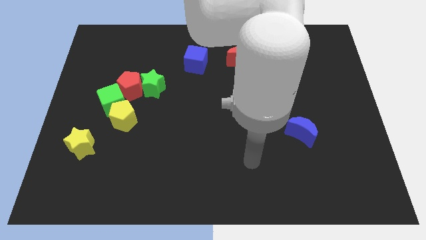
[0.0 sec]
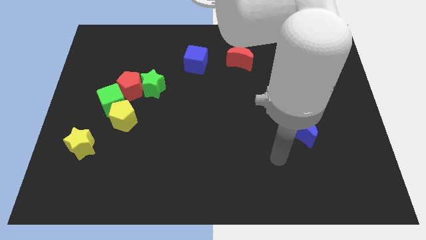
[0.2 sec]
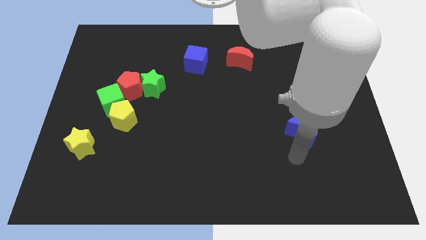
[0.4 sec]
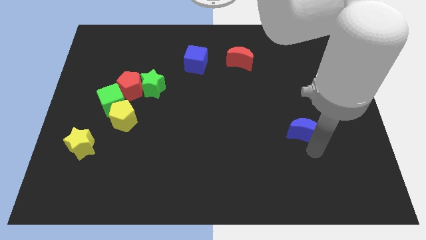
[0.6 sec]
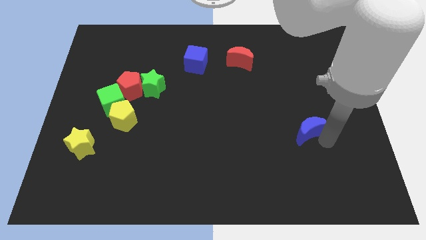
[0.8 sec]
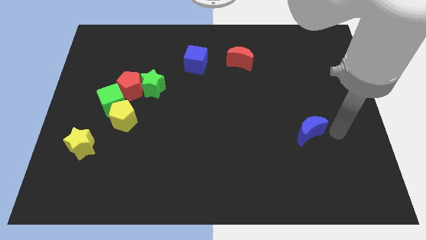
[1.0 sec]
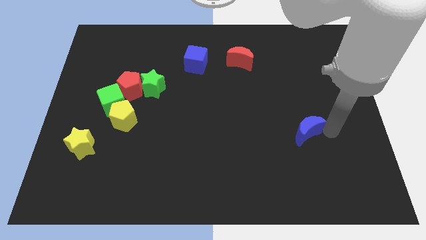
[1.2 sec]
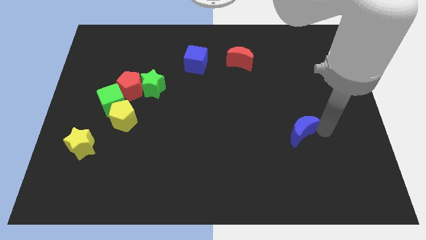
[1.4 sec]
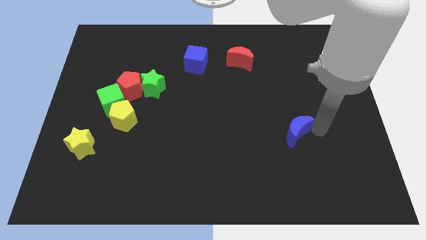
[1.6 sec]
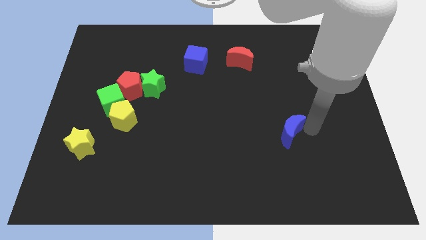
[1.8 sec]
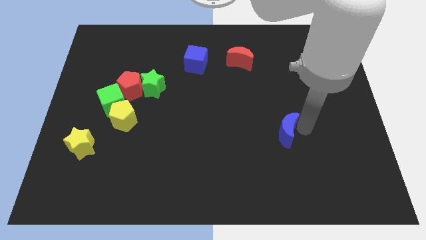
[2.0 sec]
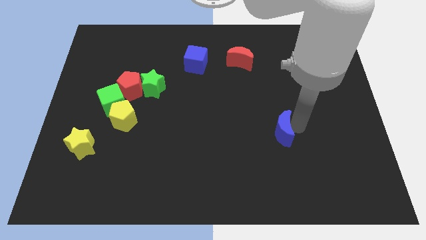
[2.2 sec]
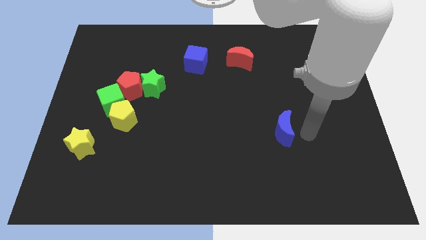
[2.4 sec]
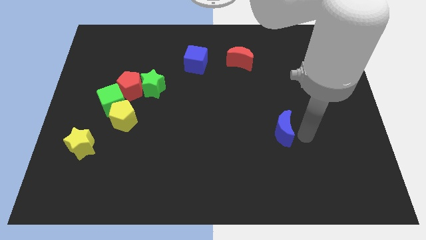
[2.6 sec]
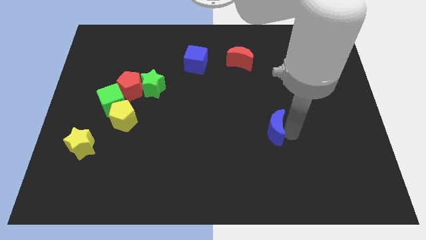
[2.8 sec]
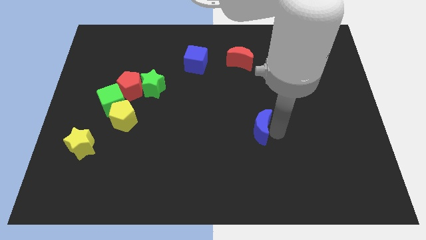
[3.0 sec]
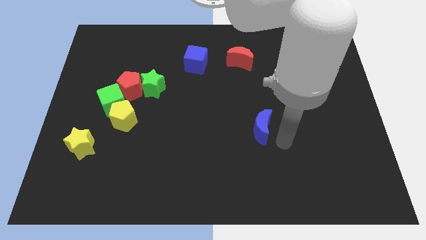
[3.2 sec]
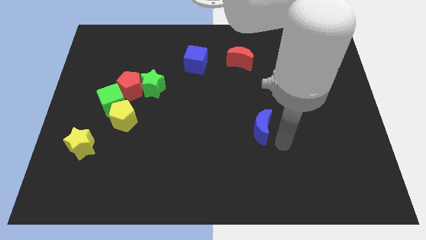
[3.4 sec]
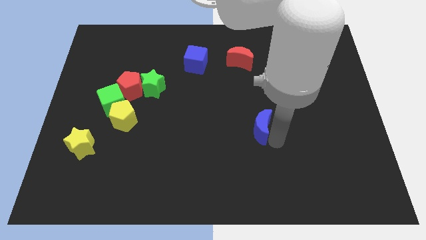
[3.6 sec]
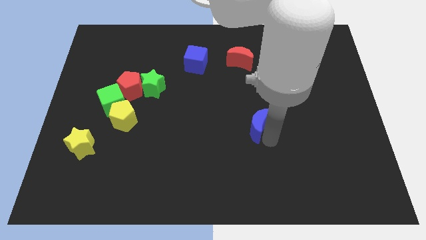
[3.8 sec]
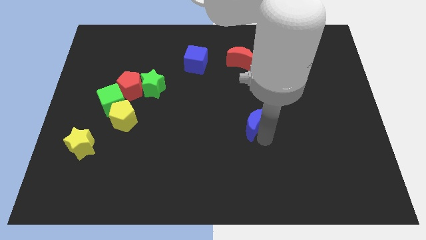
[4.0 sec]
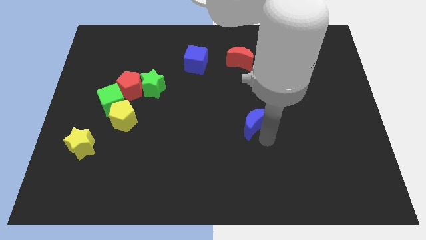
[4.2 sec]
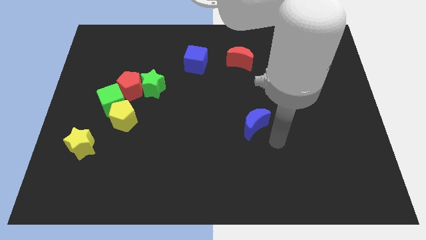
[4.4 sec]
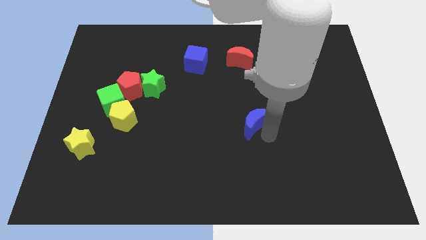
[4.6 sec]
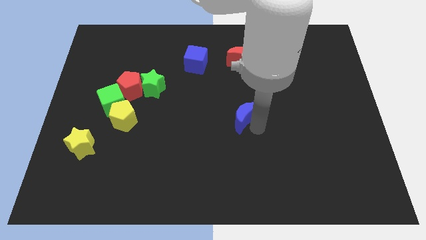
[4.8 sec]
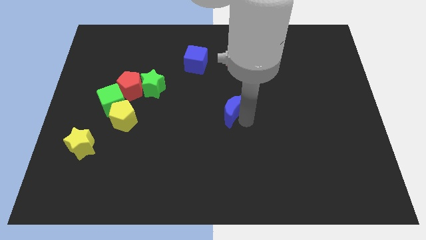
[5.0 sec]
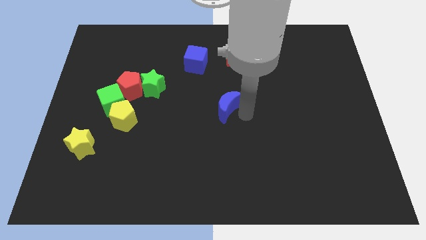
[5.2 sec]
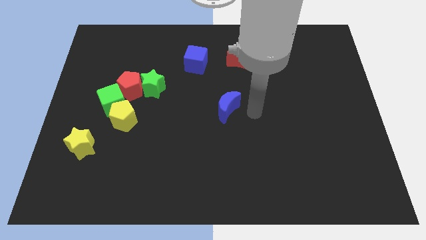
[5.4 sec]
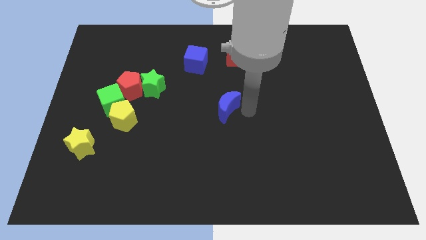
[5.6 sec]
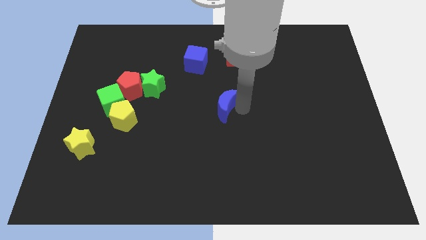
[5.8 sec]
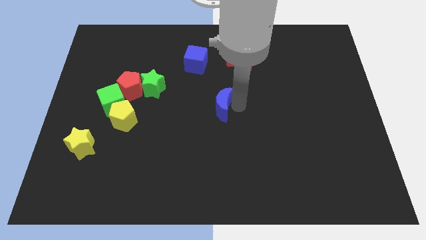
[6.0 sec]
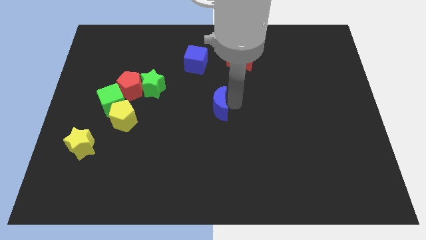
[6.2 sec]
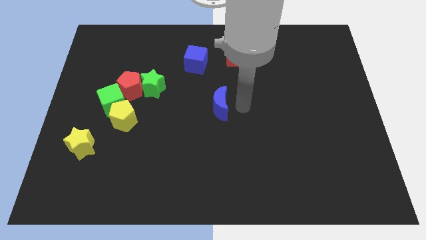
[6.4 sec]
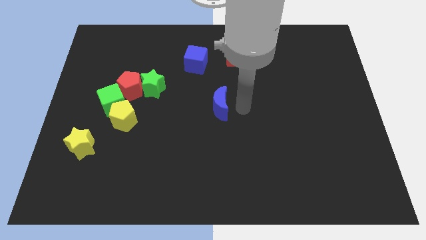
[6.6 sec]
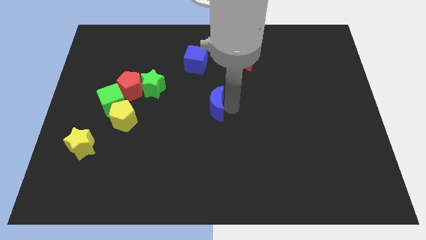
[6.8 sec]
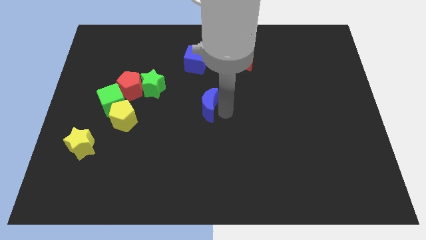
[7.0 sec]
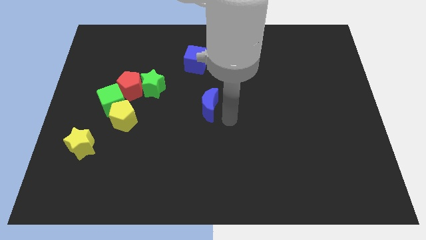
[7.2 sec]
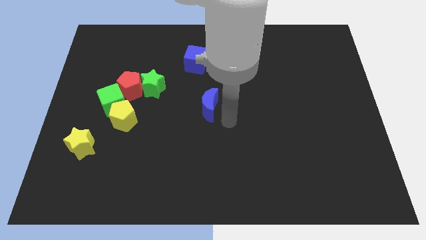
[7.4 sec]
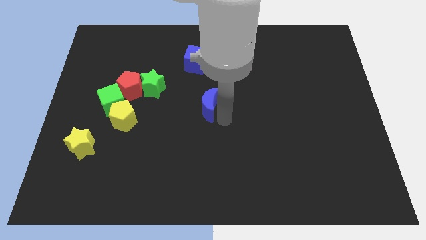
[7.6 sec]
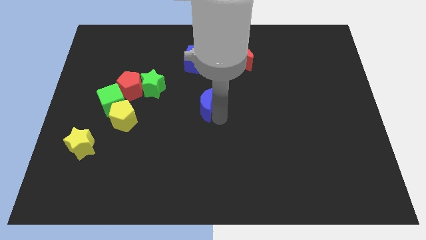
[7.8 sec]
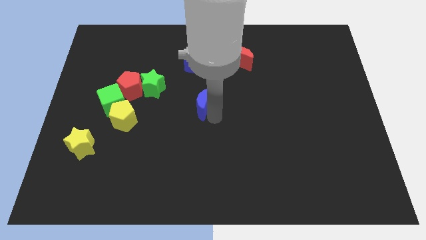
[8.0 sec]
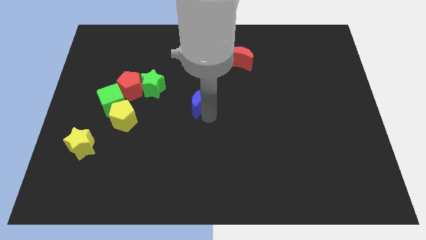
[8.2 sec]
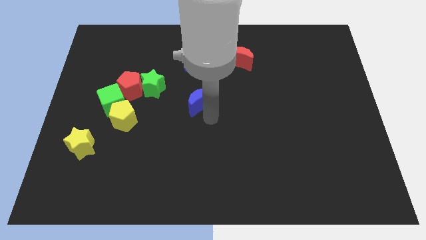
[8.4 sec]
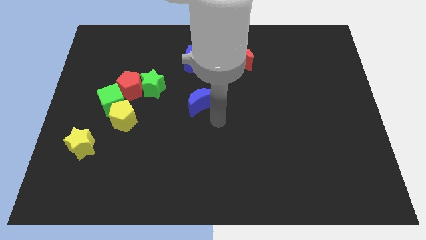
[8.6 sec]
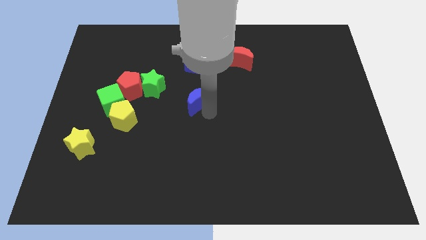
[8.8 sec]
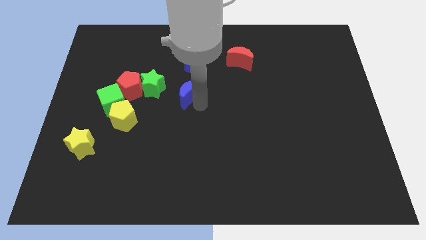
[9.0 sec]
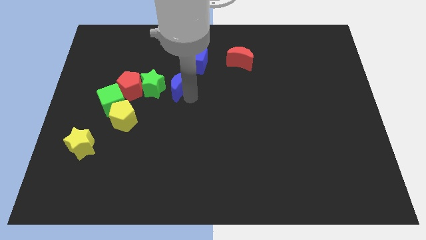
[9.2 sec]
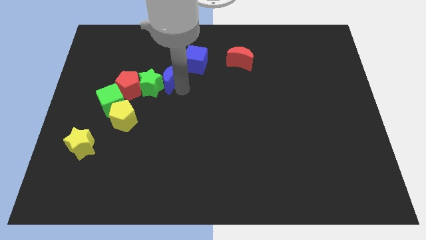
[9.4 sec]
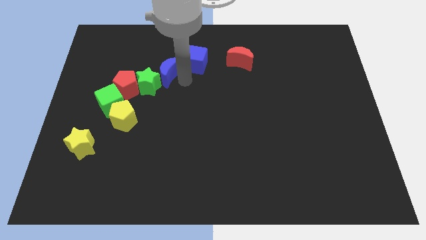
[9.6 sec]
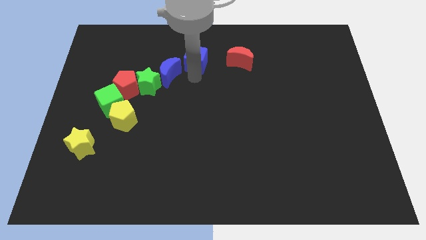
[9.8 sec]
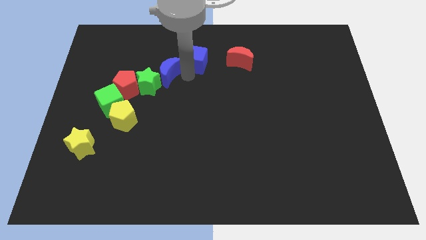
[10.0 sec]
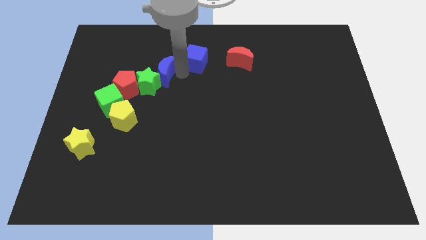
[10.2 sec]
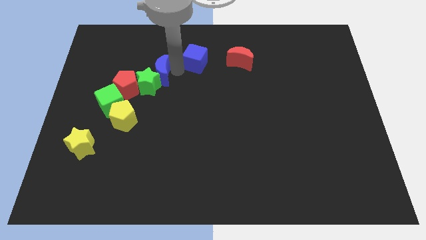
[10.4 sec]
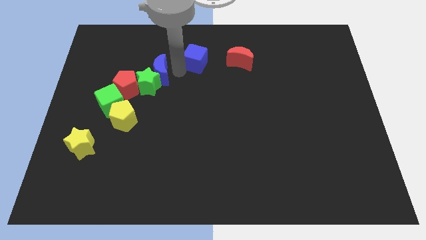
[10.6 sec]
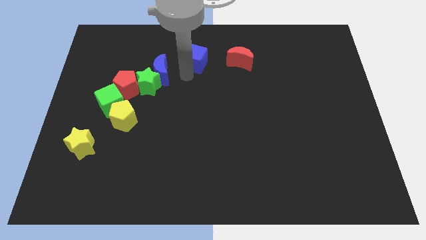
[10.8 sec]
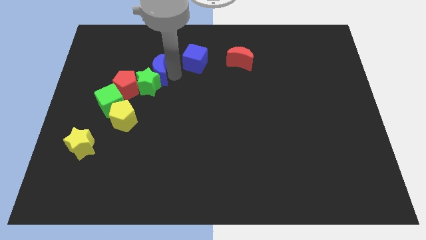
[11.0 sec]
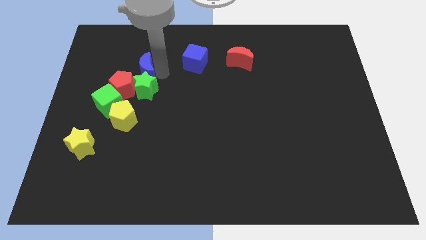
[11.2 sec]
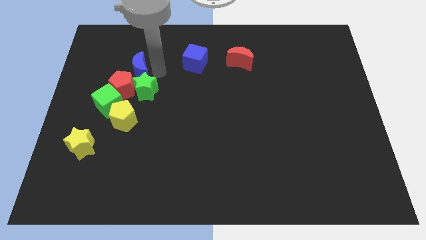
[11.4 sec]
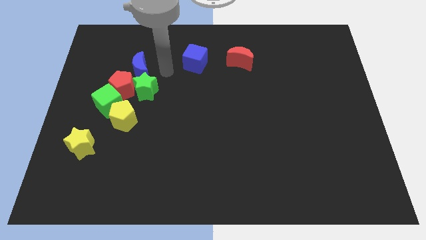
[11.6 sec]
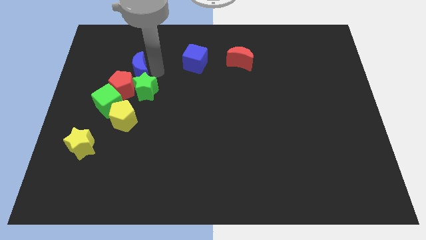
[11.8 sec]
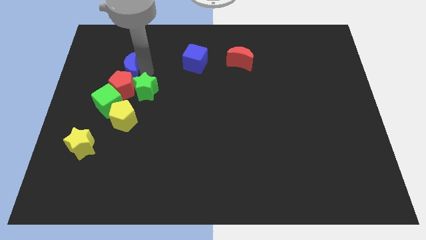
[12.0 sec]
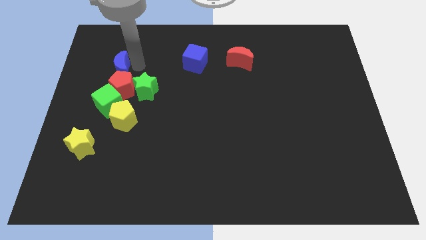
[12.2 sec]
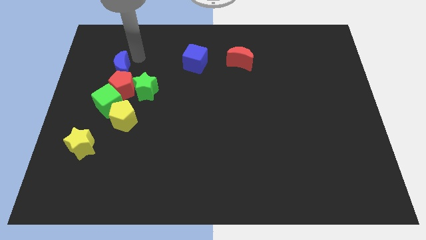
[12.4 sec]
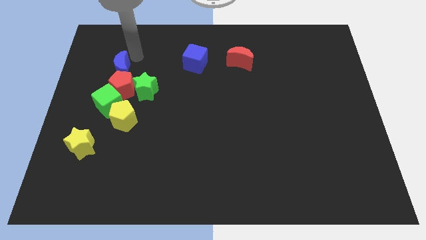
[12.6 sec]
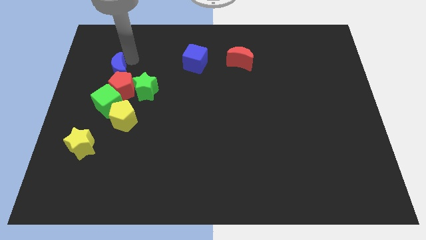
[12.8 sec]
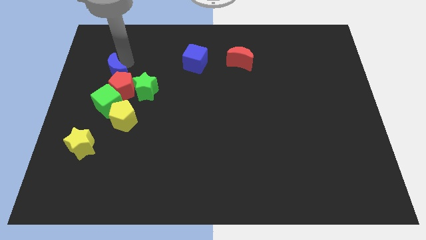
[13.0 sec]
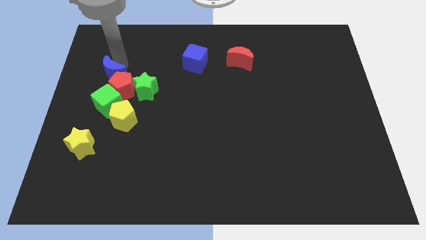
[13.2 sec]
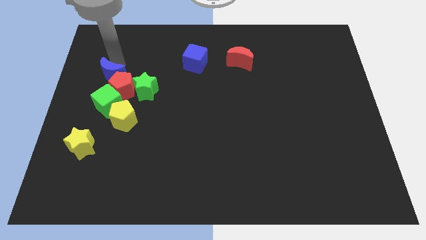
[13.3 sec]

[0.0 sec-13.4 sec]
slide the blue moon left of the green star
